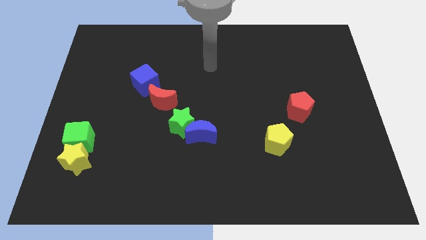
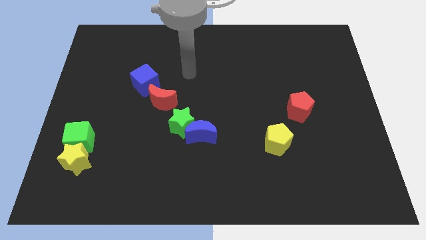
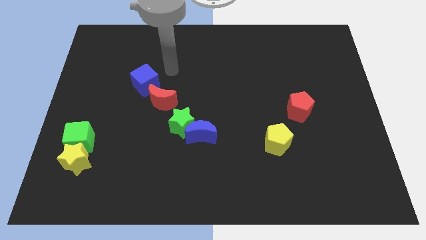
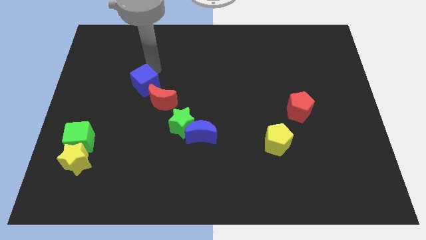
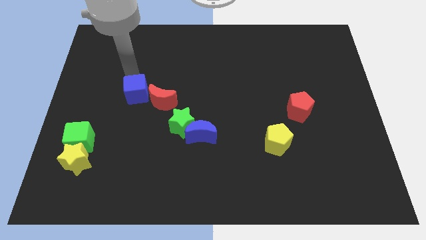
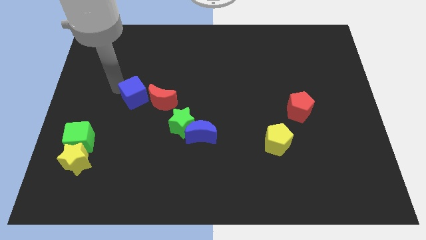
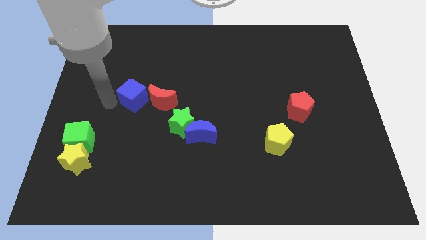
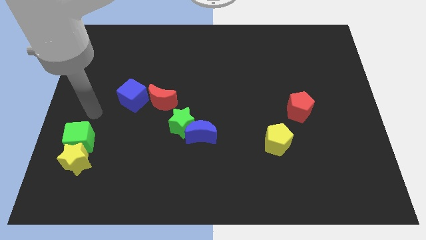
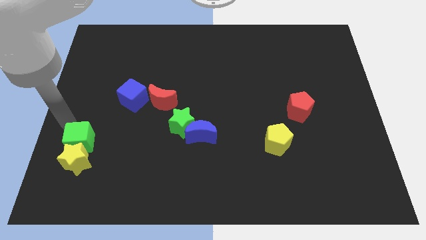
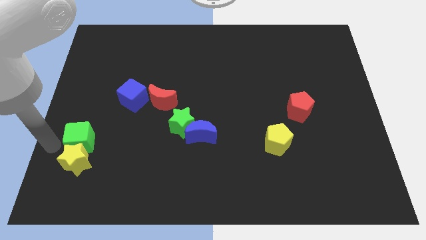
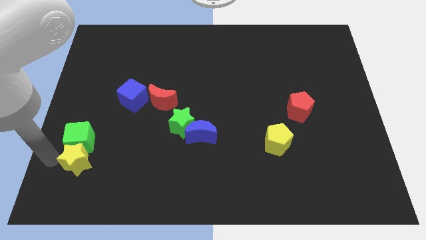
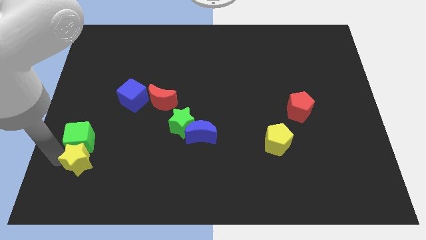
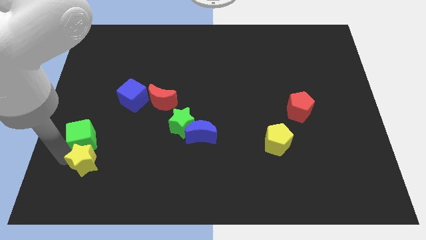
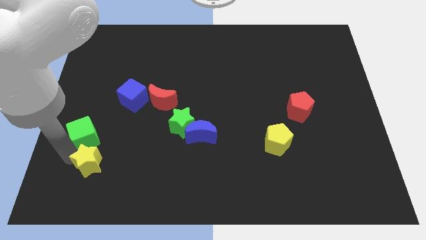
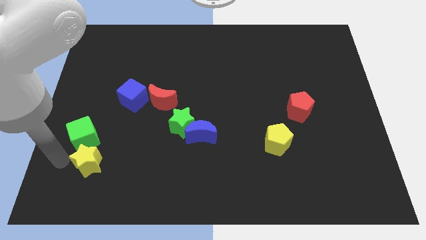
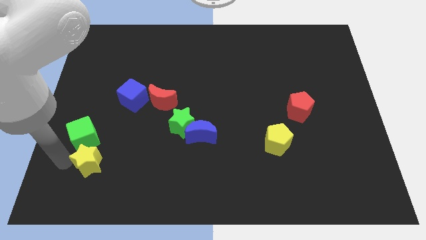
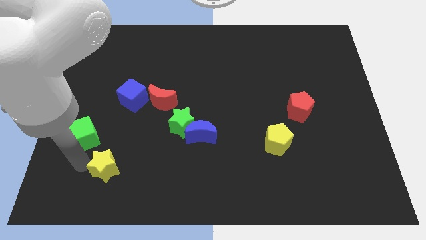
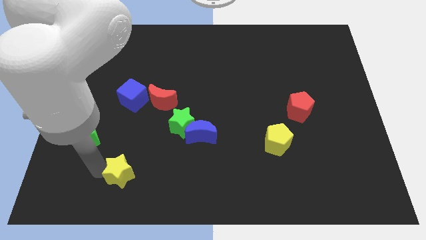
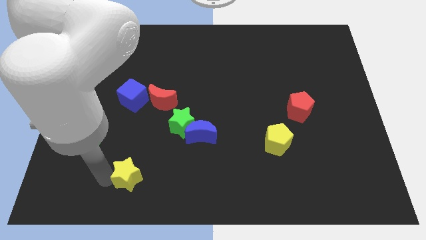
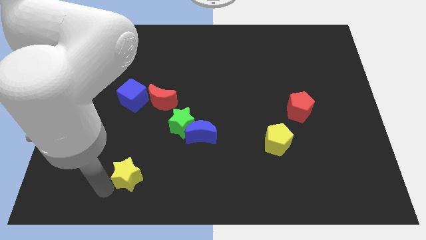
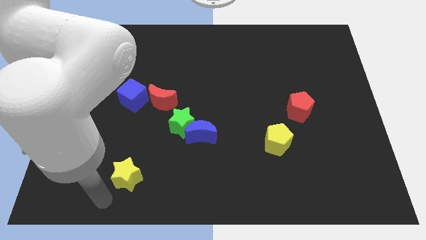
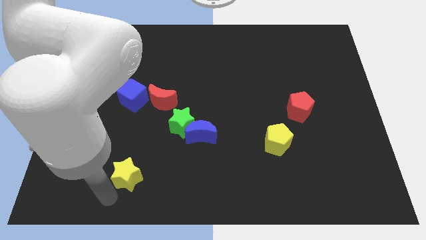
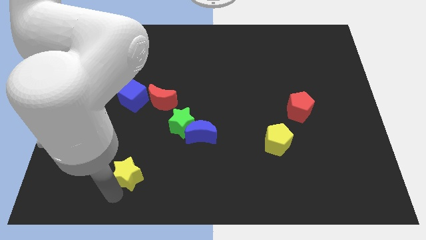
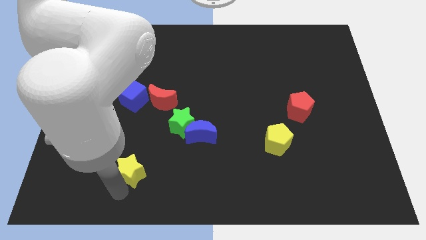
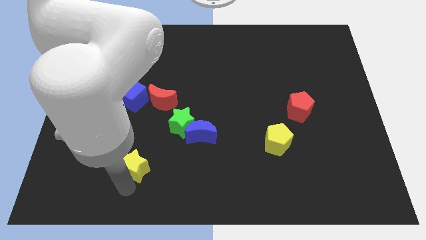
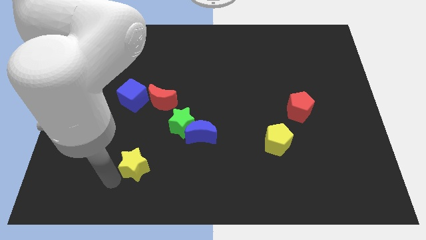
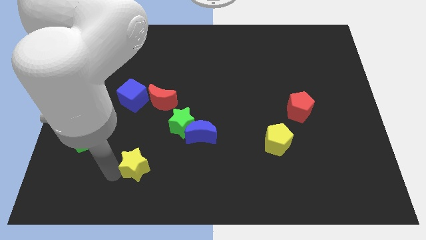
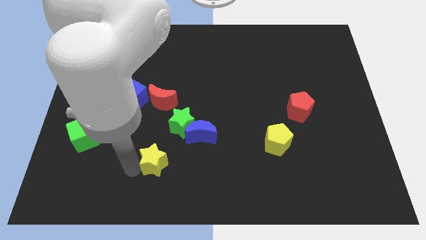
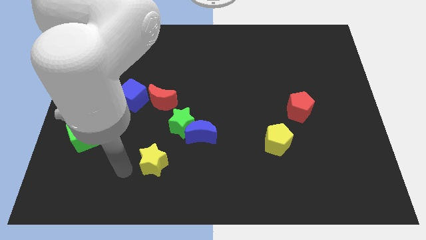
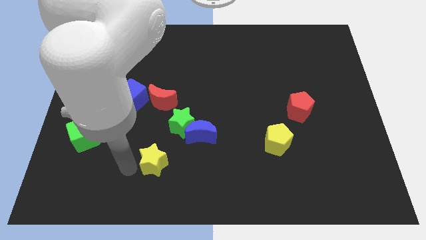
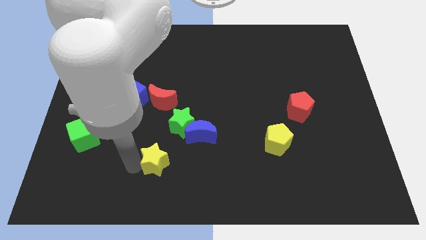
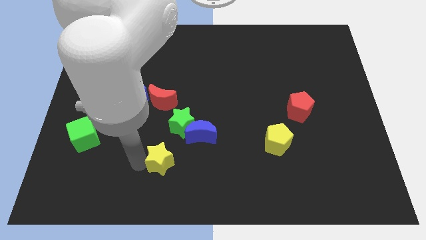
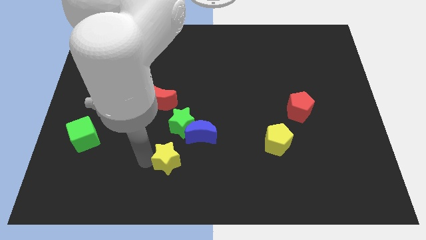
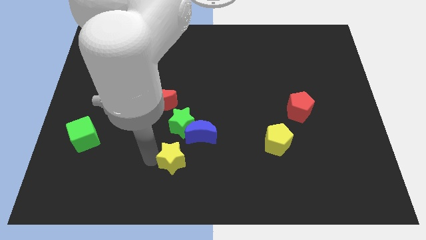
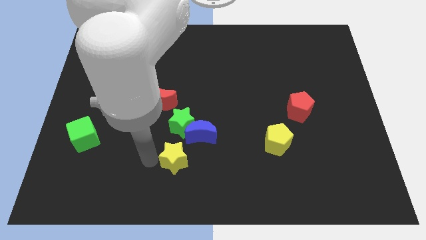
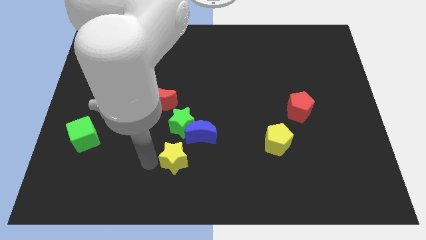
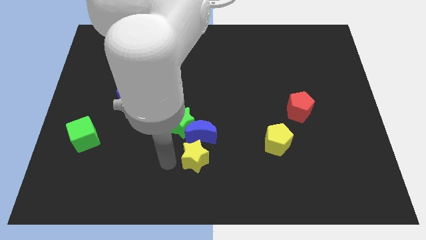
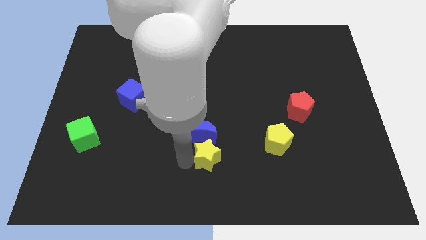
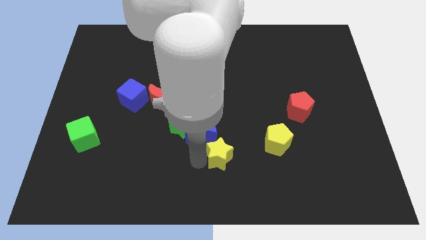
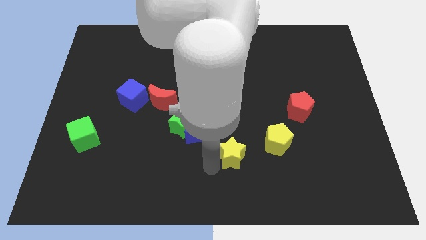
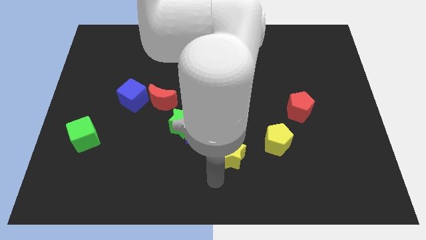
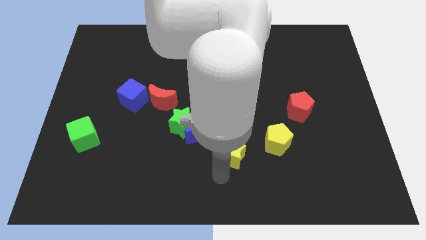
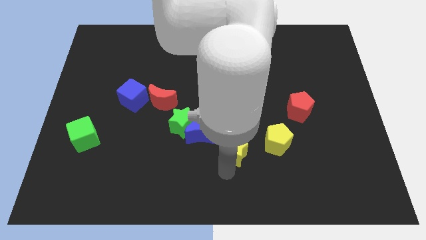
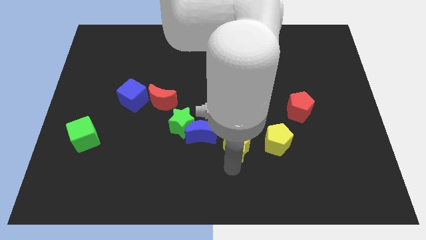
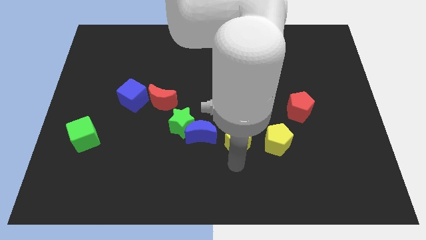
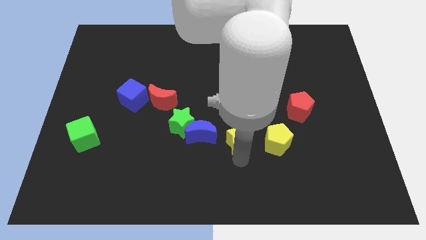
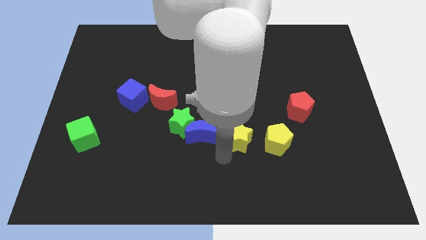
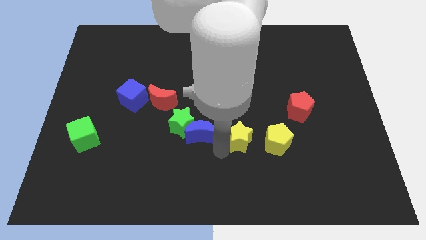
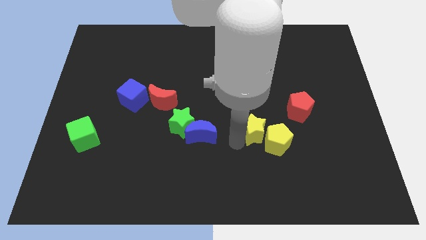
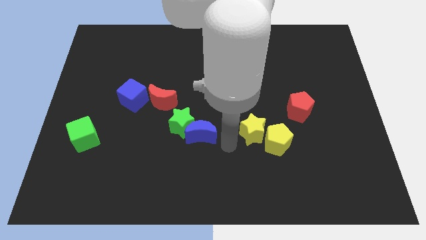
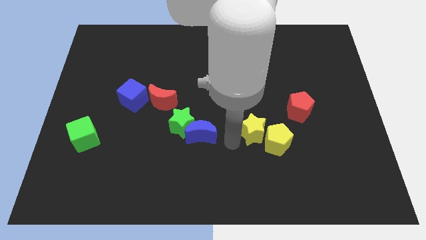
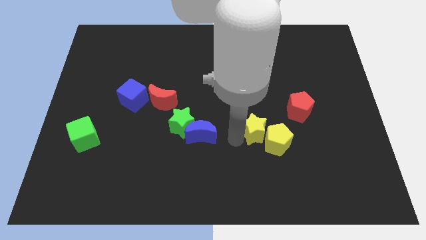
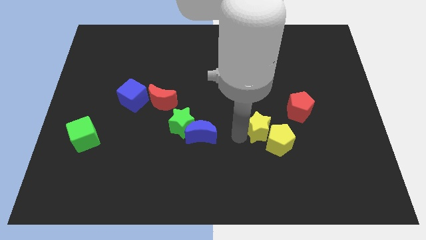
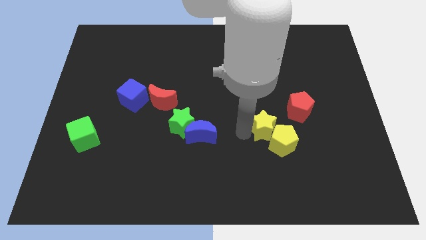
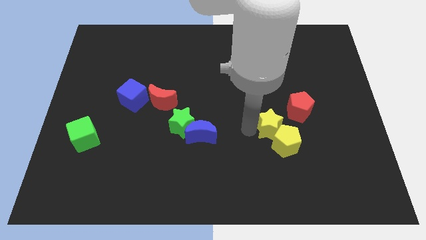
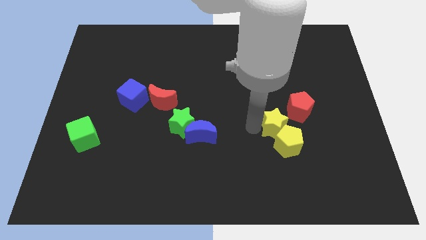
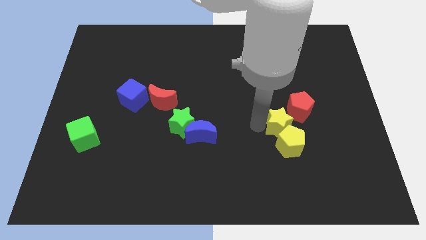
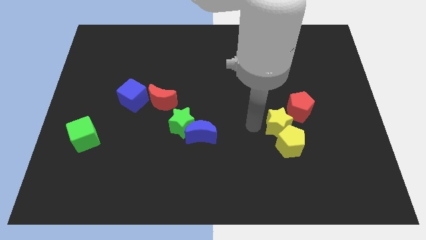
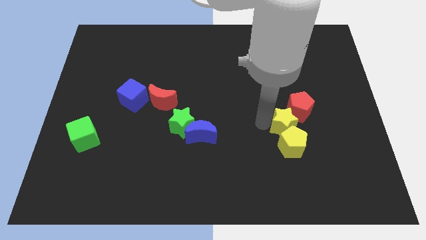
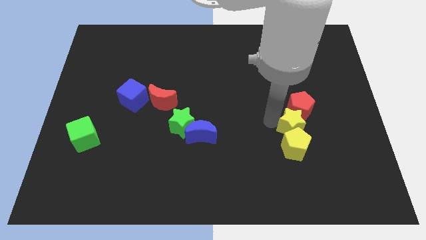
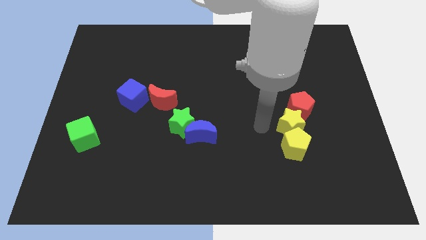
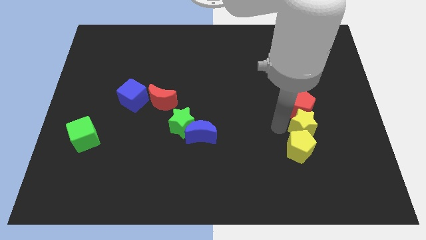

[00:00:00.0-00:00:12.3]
push the yellow star to the bottom right side of the red pentagon

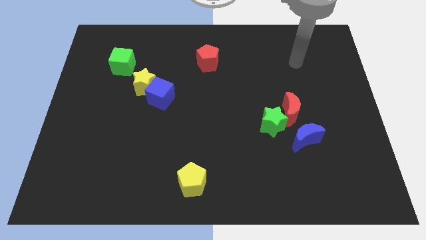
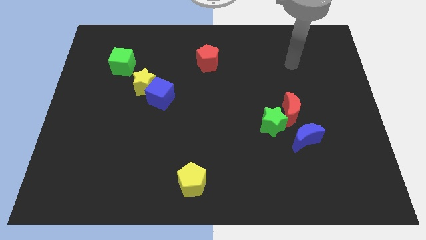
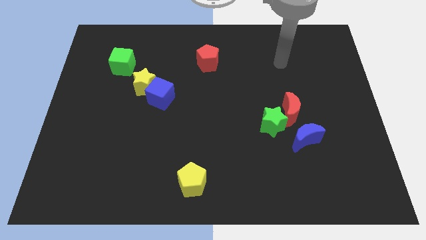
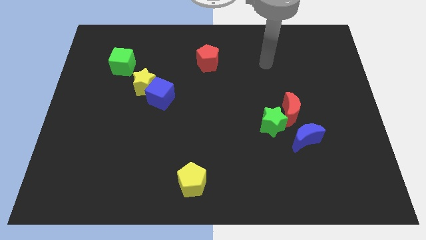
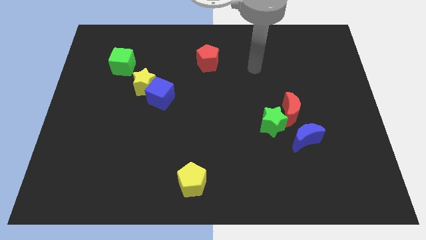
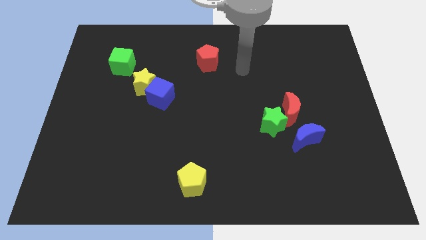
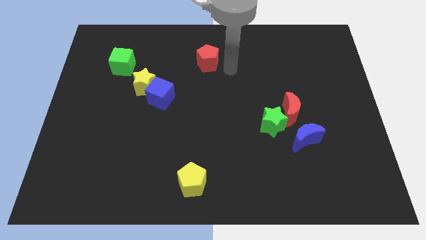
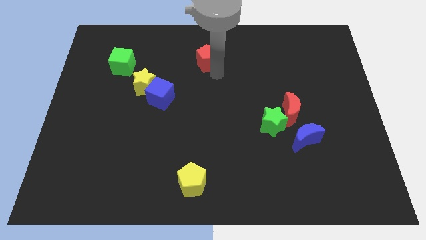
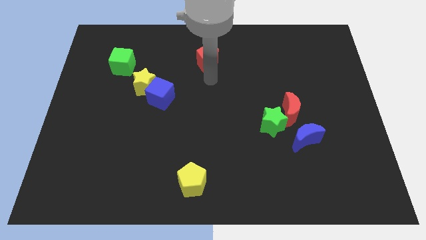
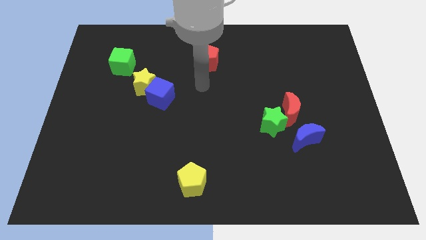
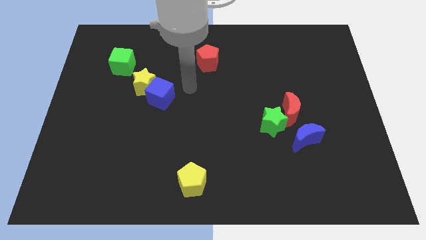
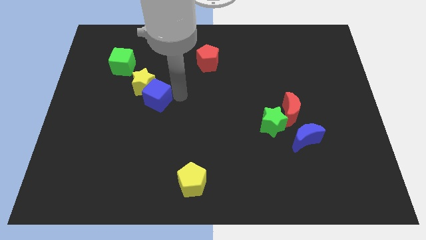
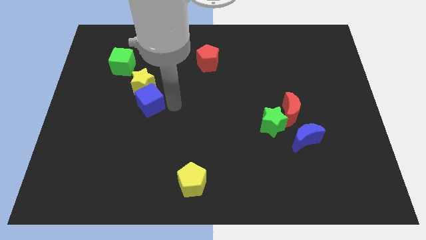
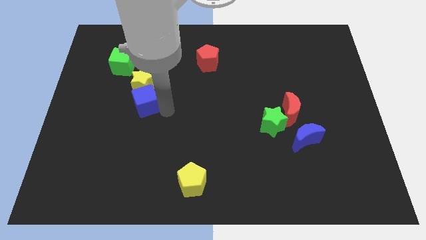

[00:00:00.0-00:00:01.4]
push the yellow star to the top right side of the blue cube
